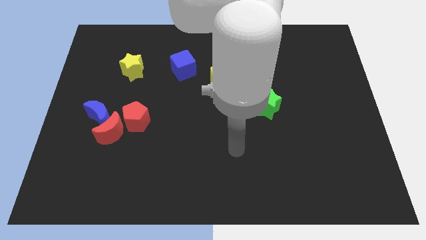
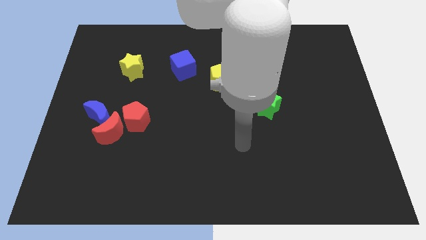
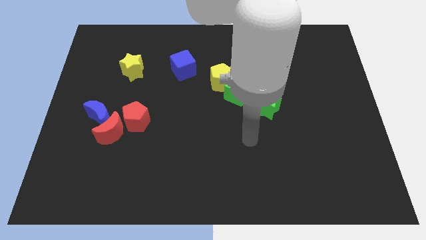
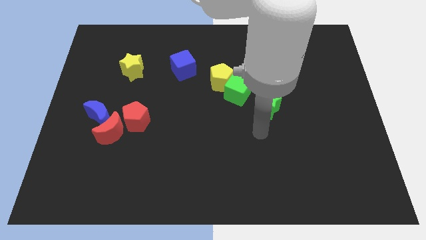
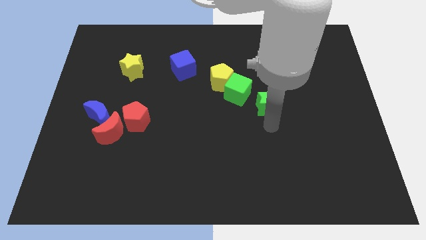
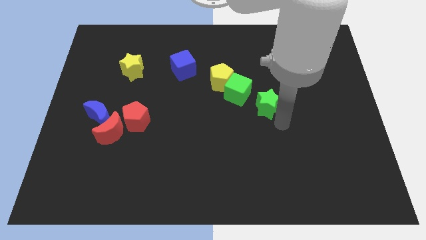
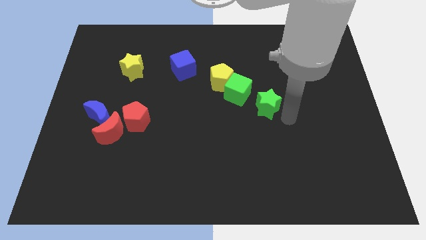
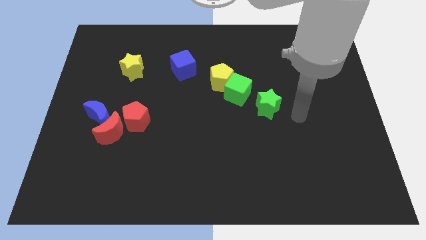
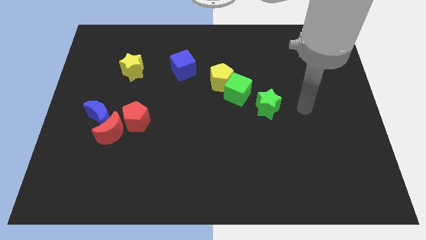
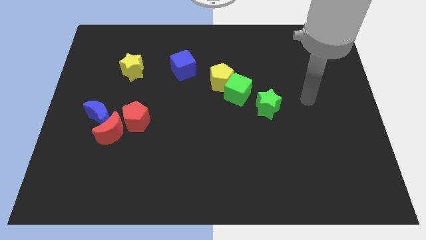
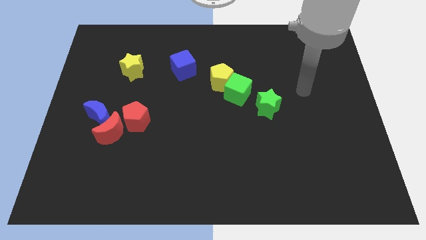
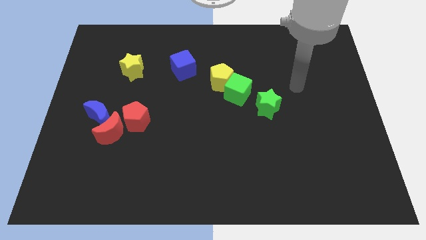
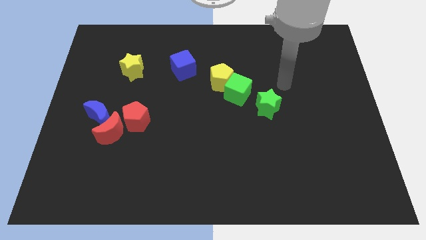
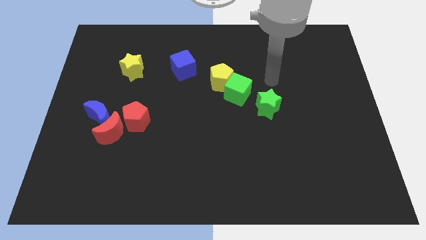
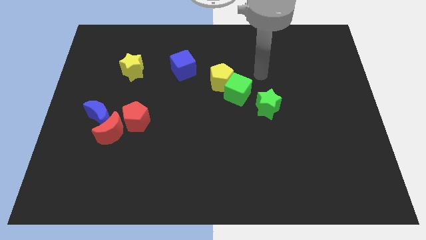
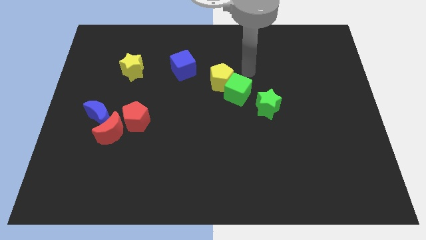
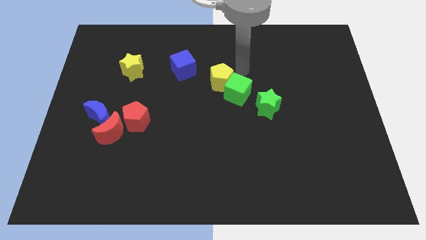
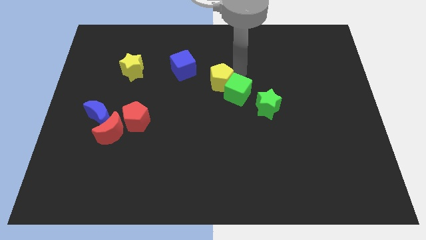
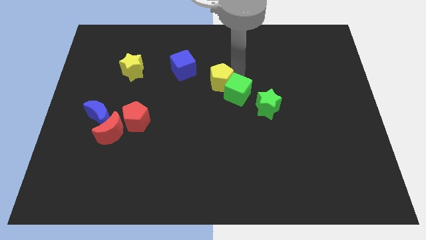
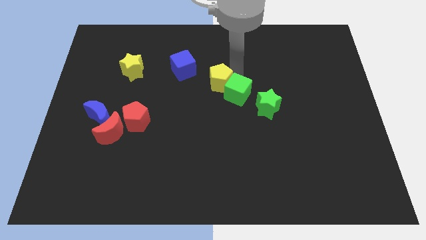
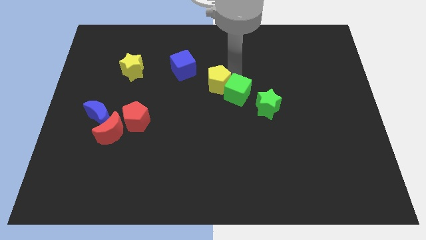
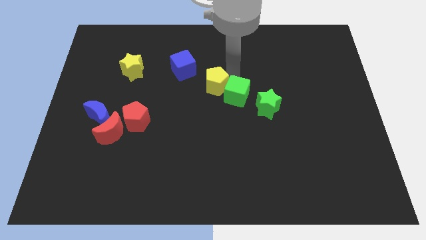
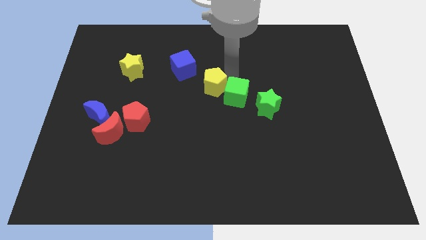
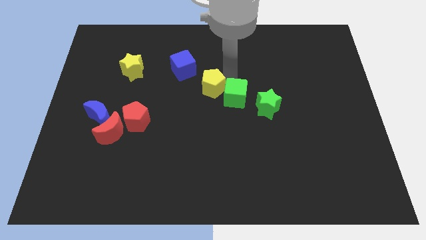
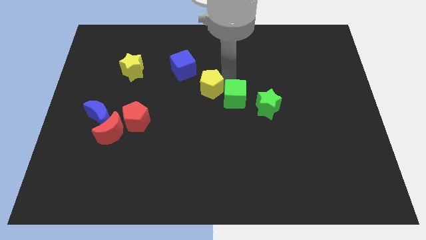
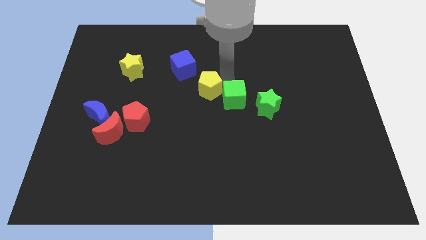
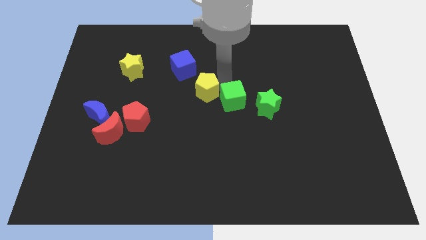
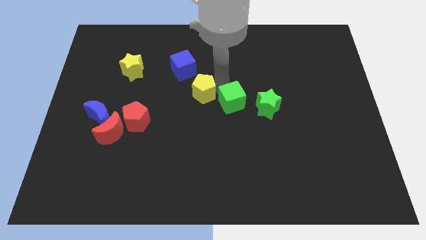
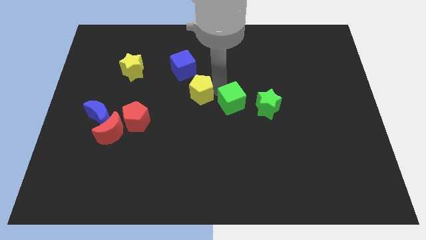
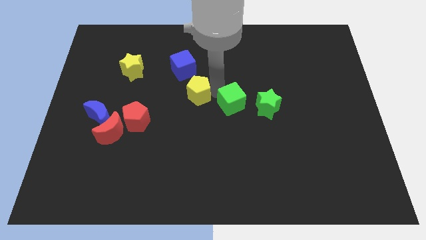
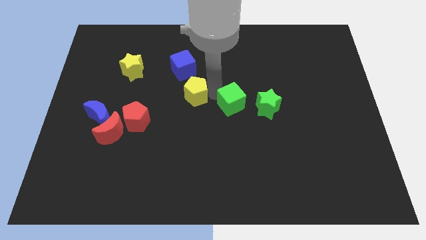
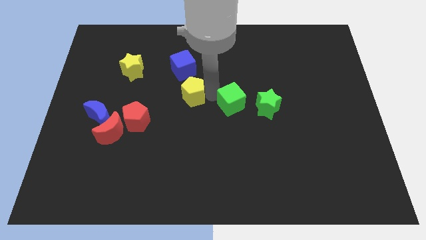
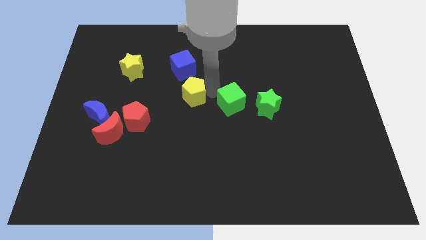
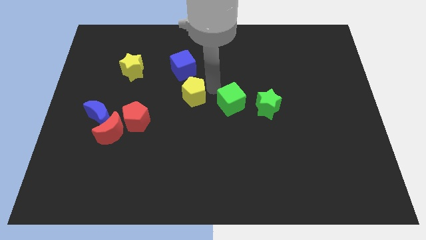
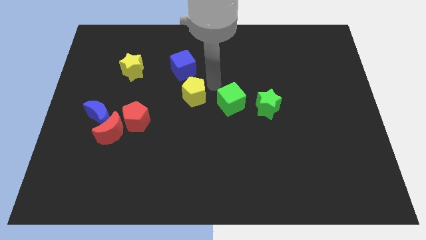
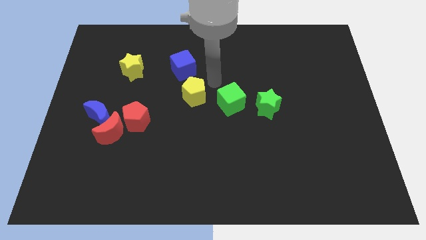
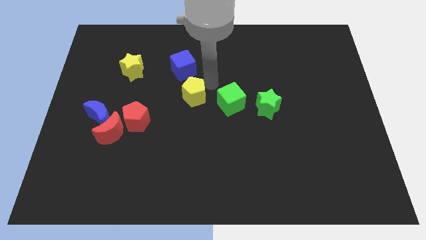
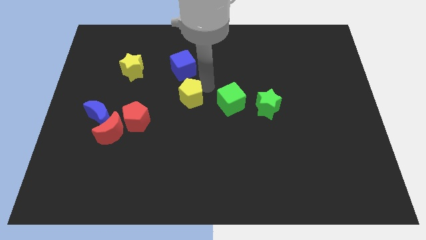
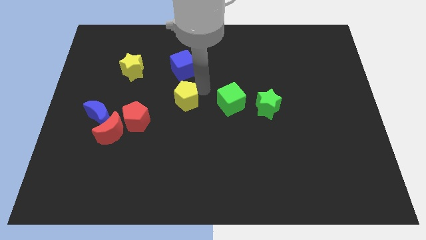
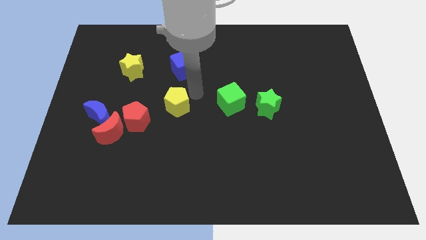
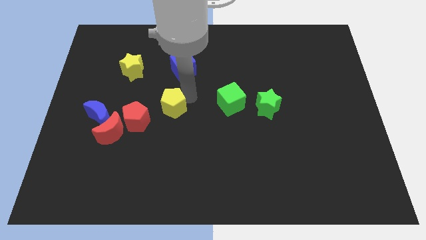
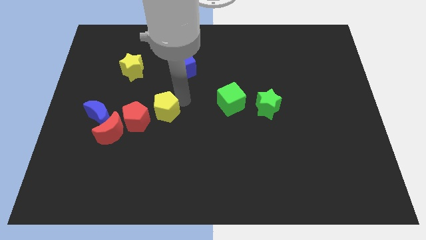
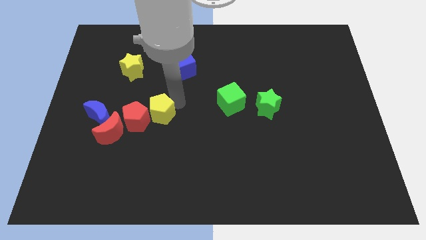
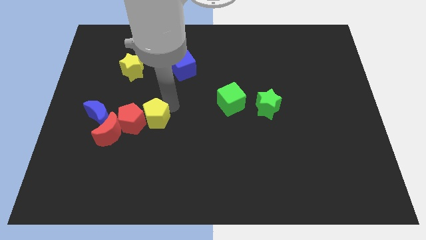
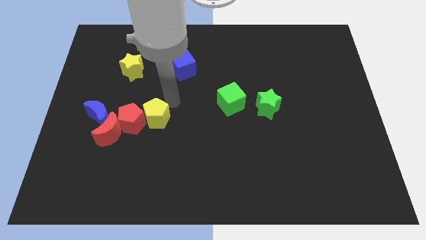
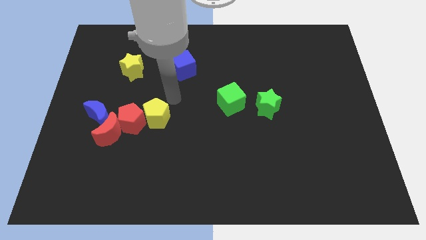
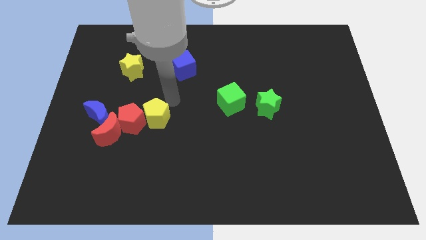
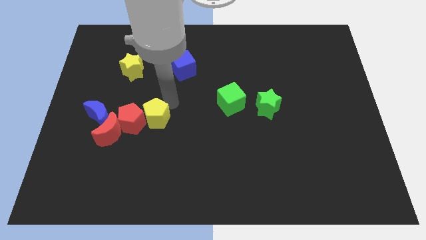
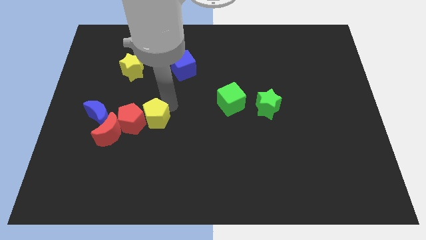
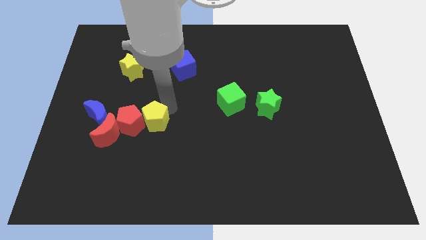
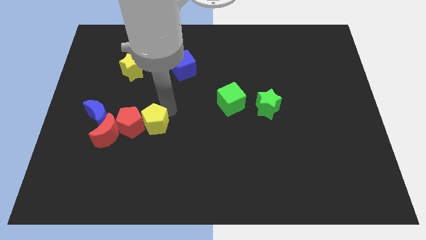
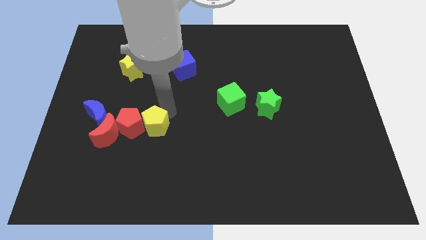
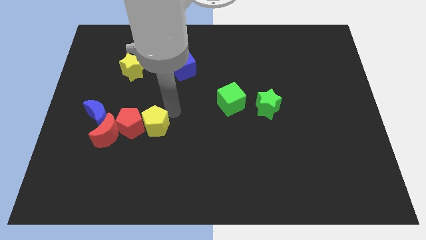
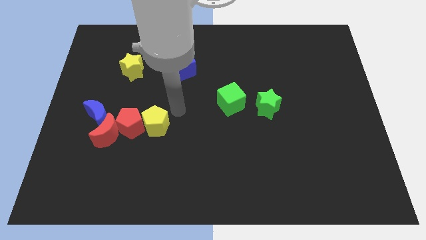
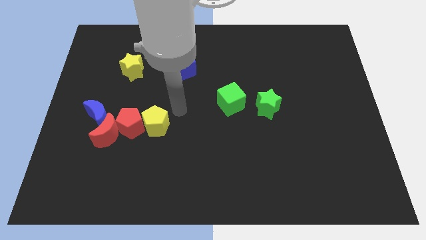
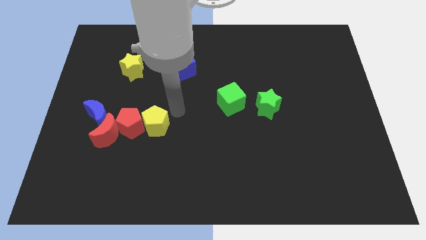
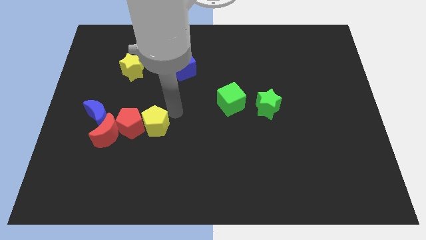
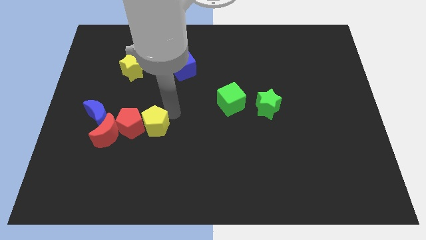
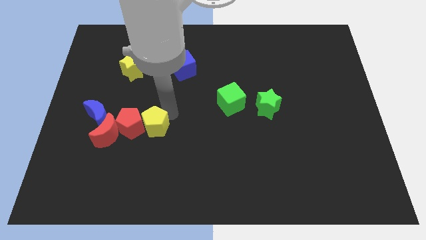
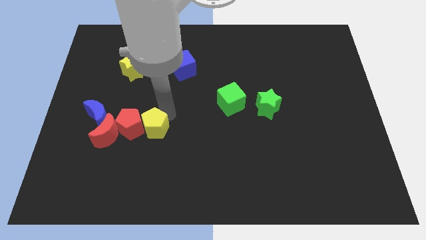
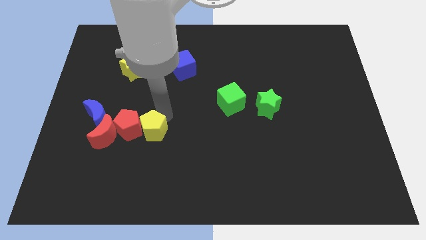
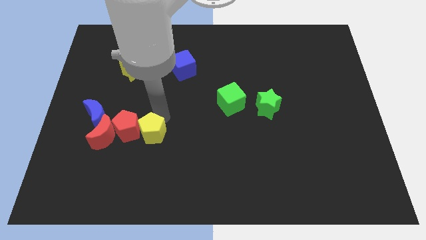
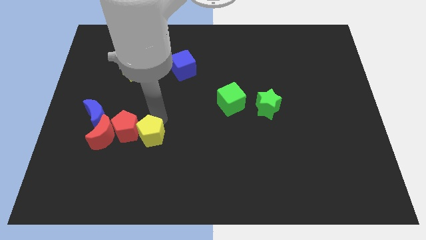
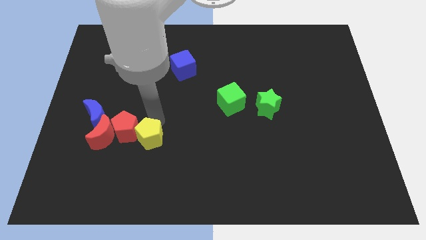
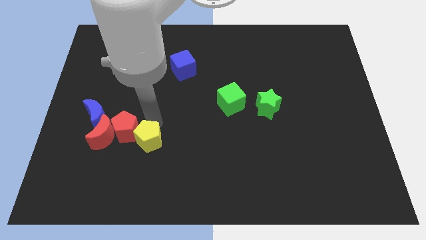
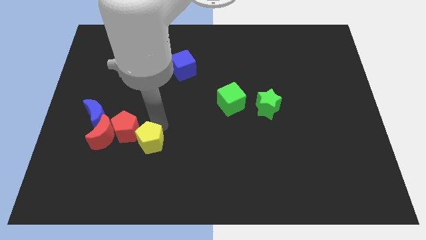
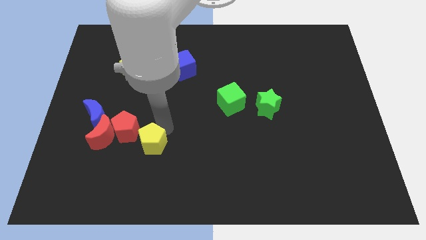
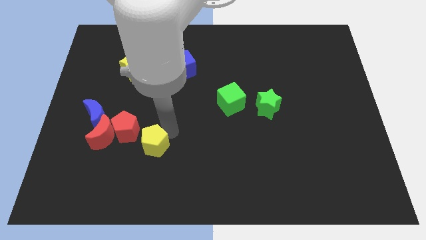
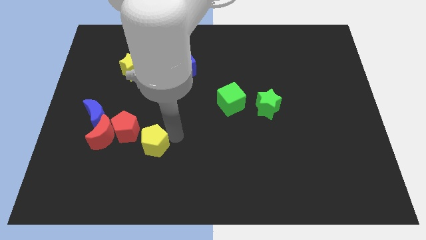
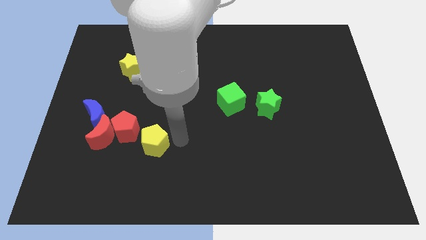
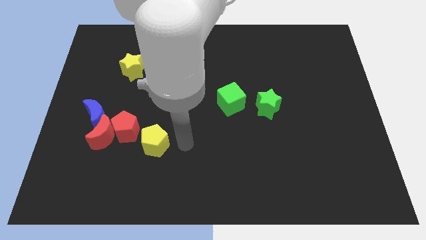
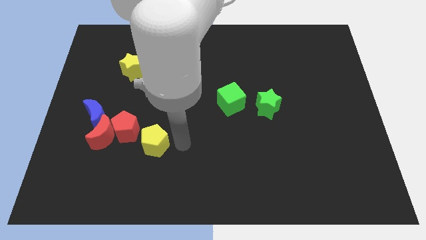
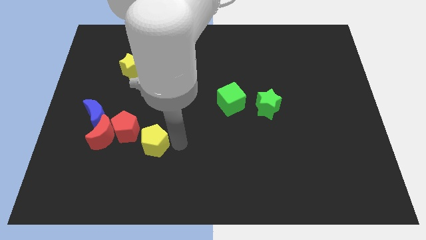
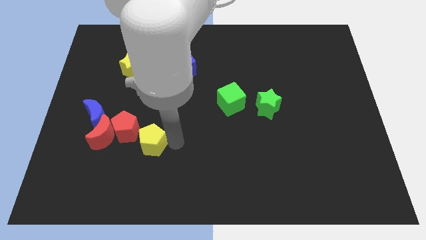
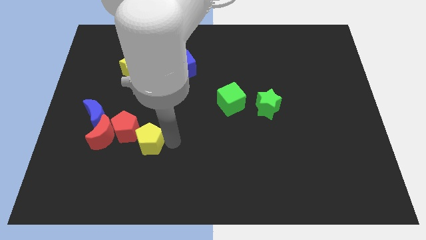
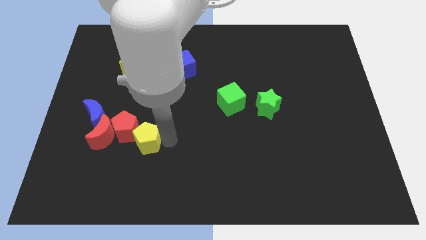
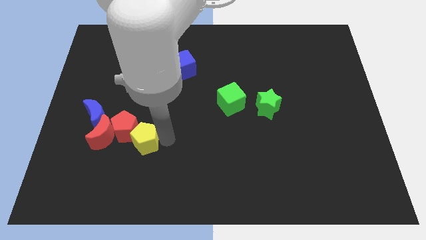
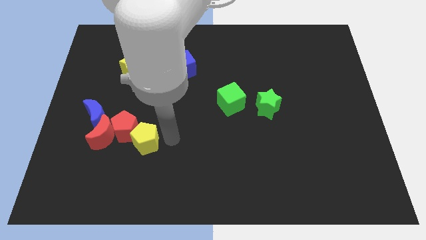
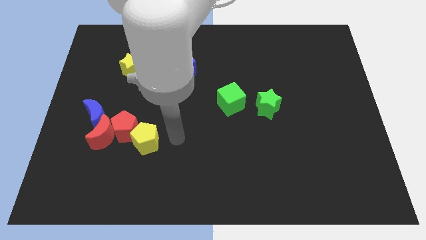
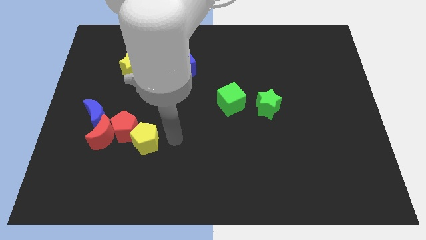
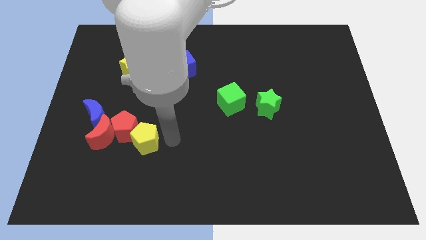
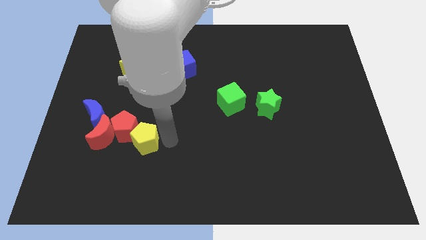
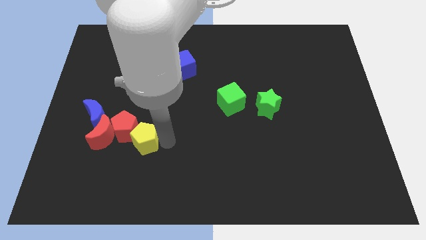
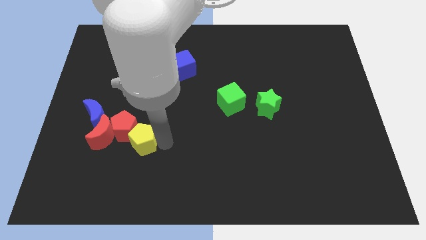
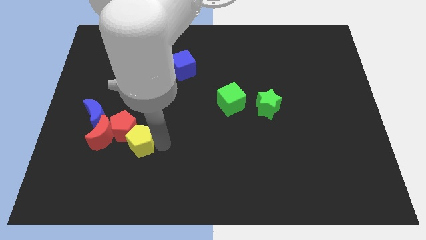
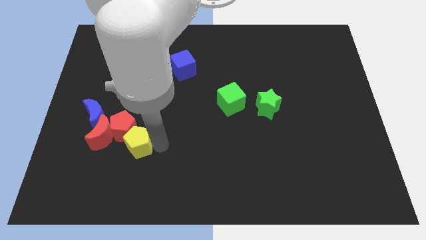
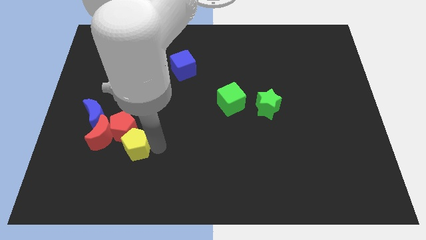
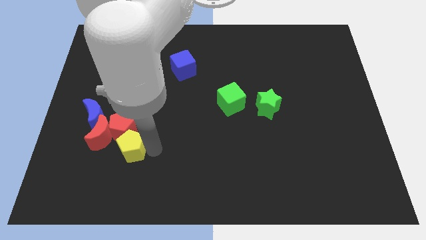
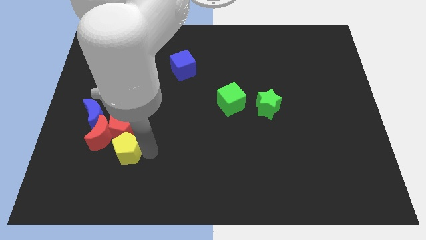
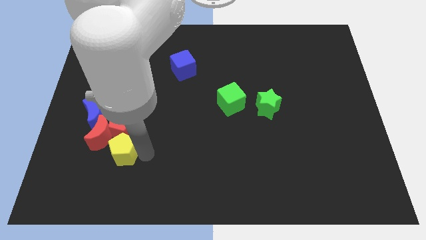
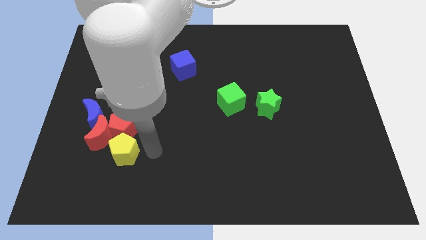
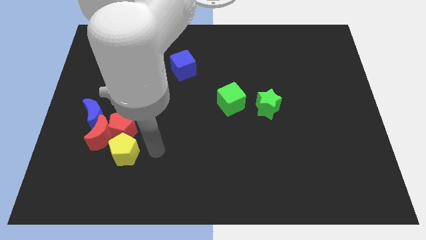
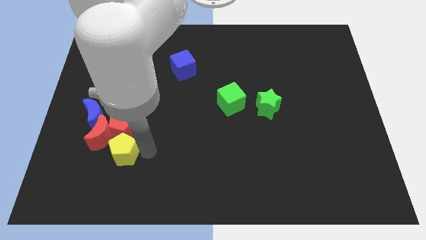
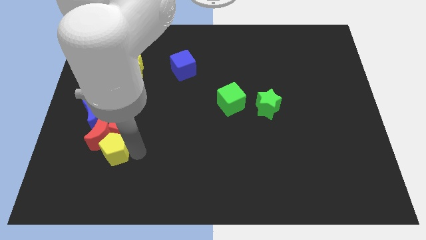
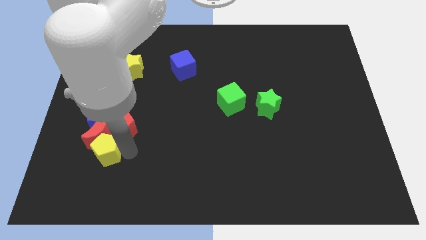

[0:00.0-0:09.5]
put the yellow pentagon below the blue moon
